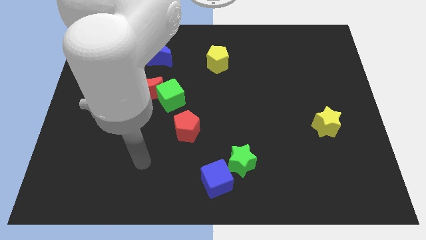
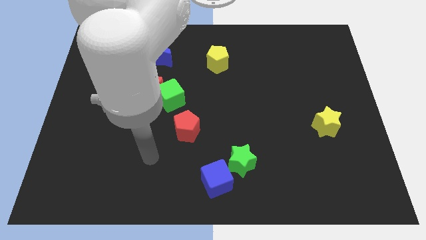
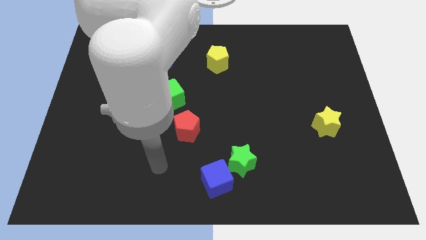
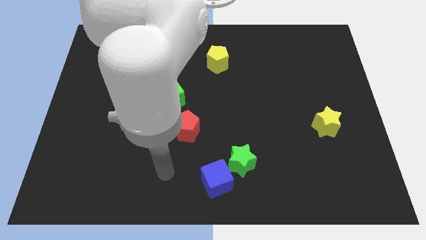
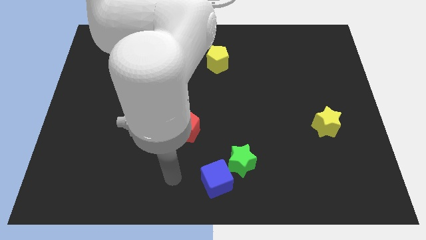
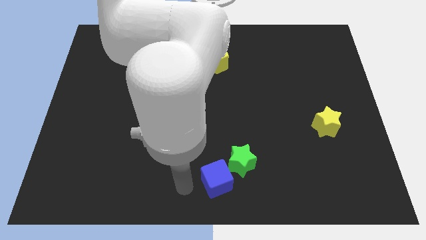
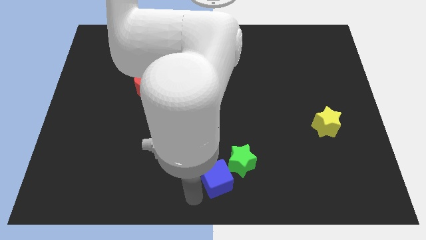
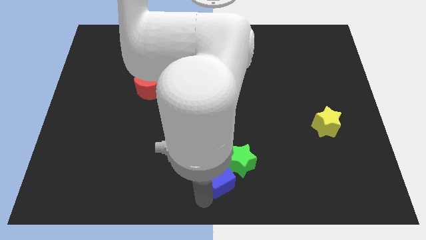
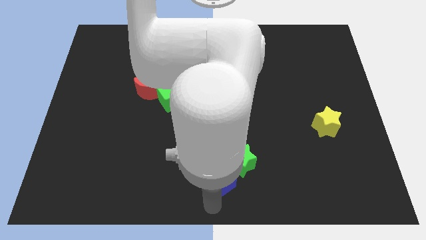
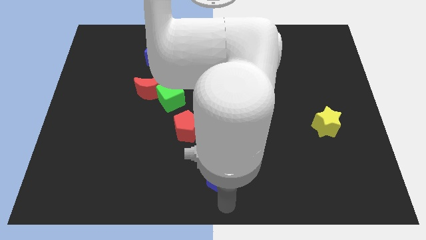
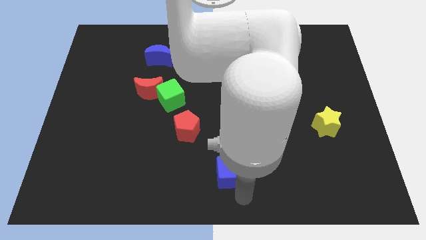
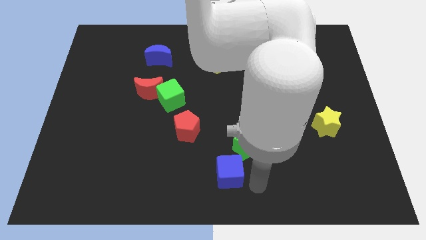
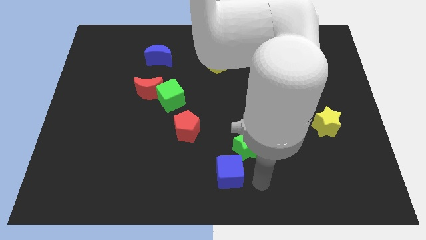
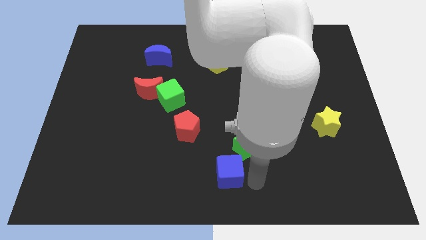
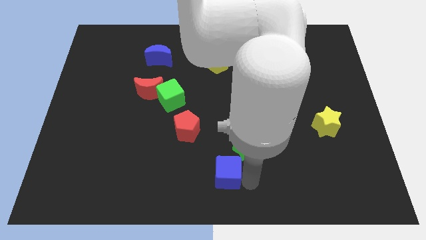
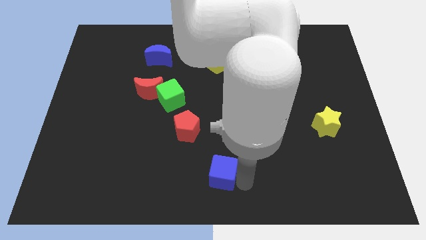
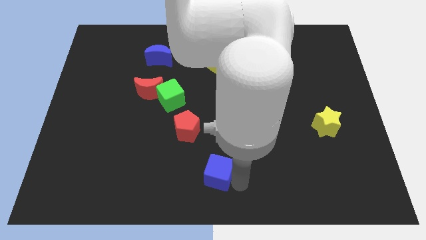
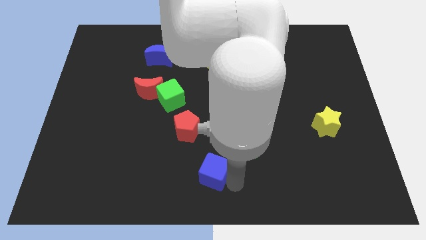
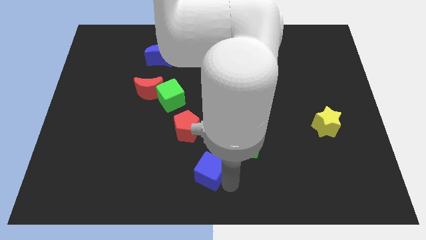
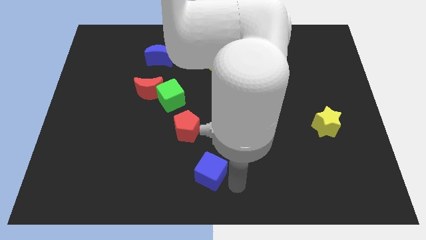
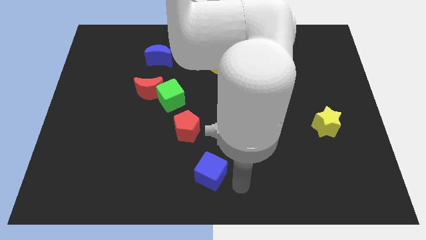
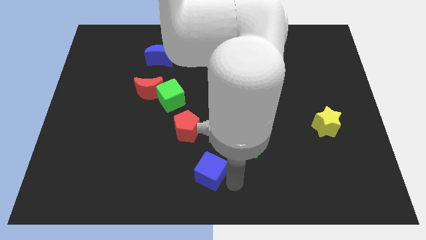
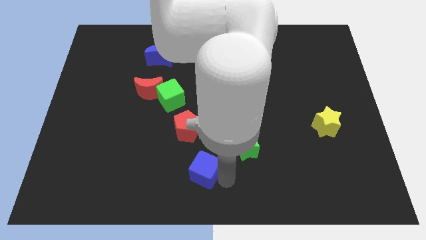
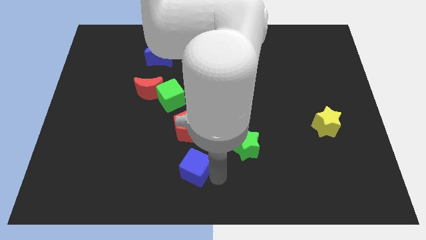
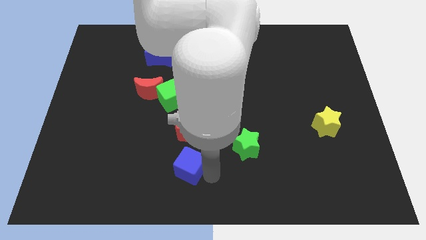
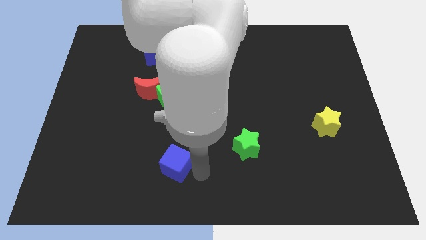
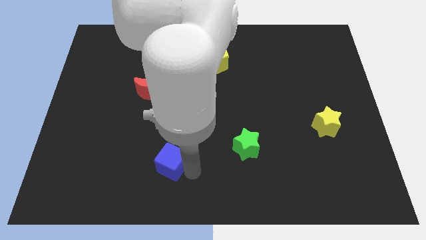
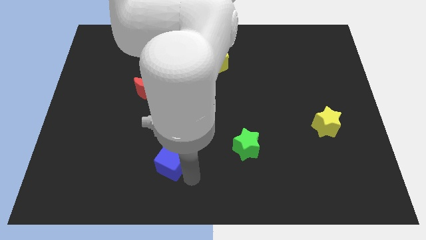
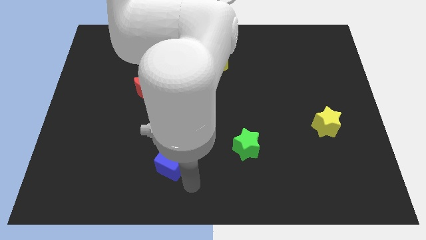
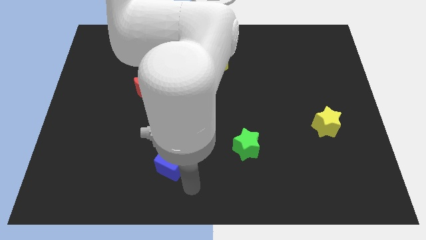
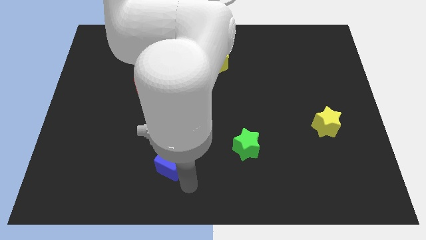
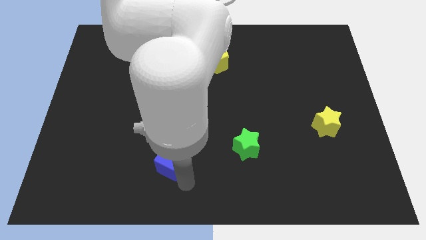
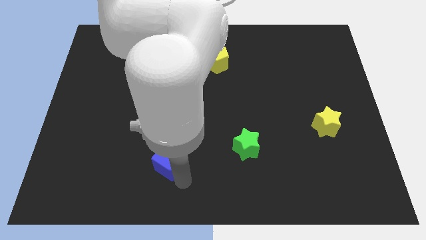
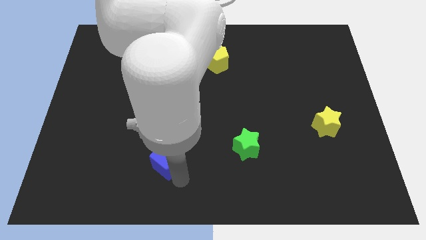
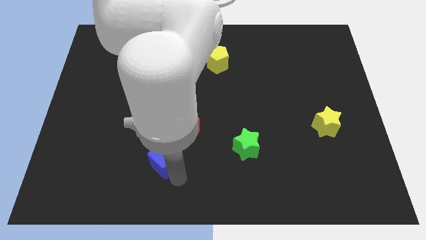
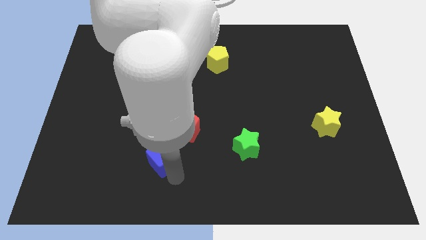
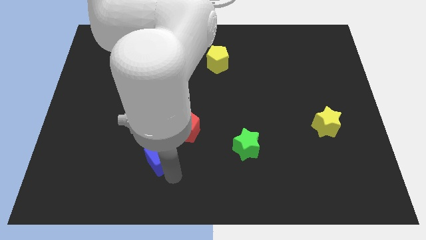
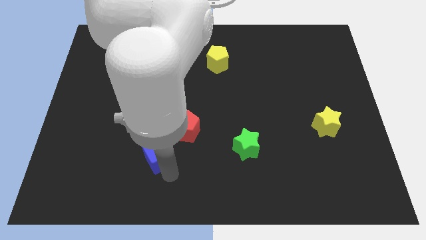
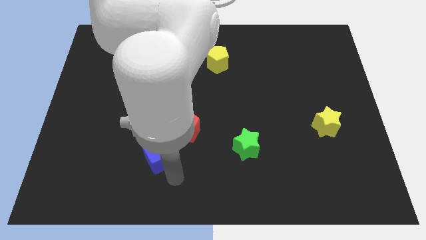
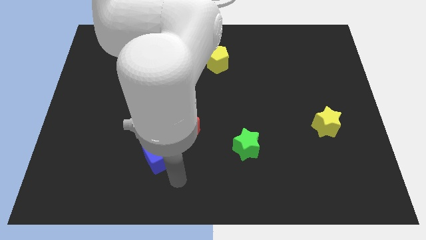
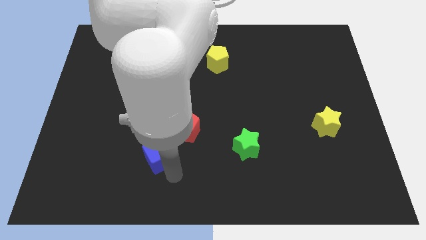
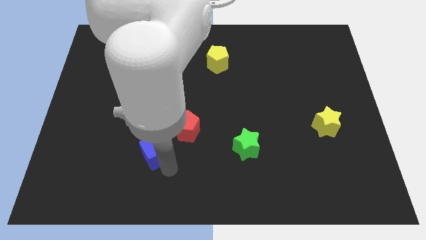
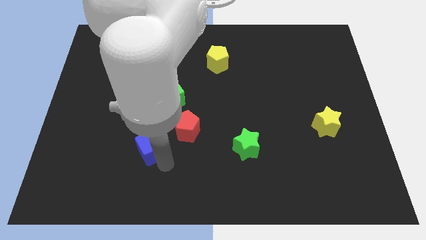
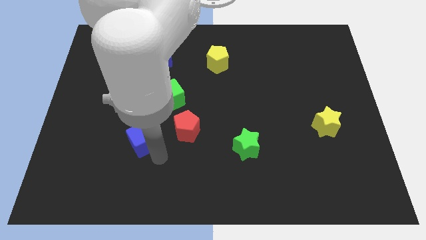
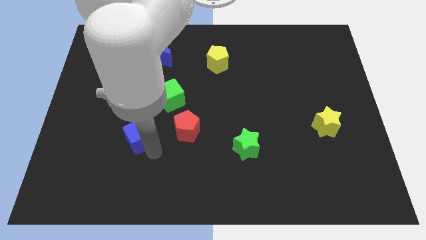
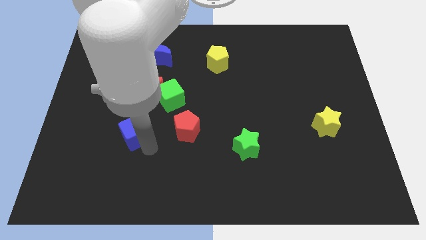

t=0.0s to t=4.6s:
push the blue cube up and then left

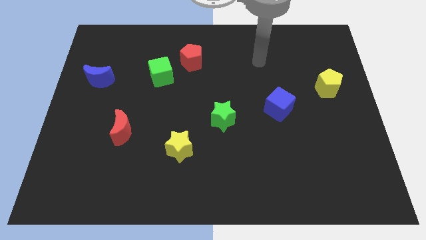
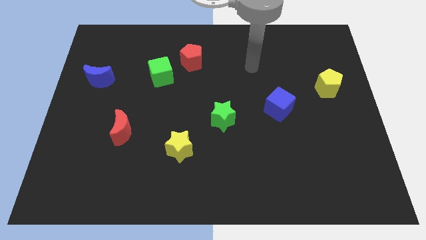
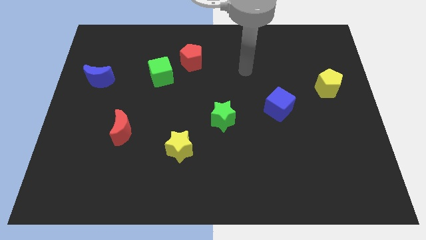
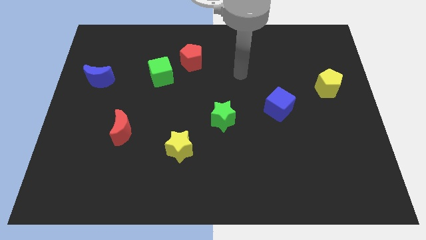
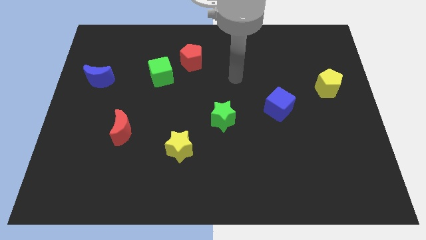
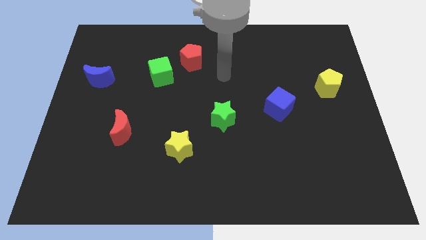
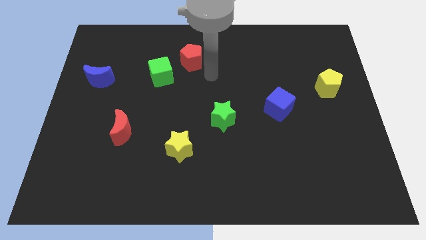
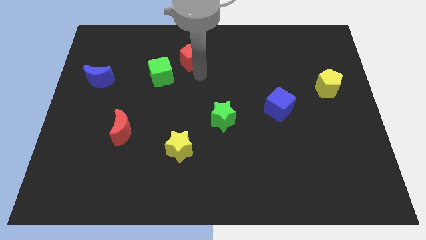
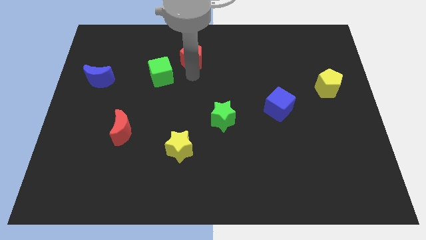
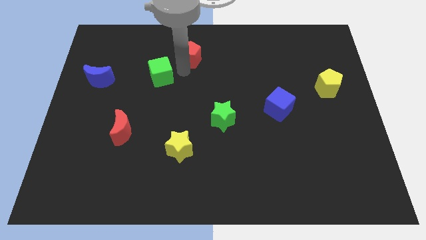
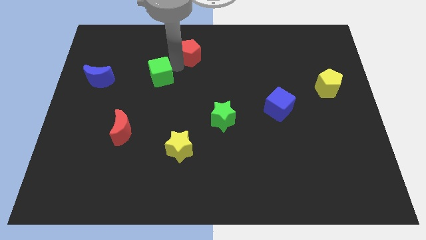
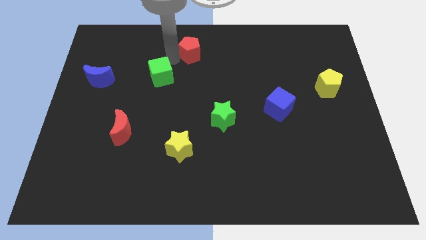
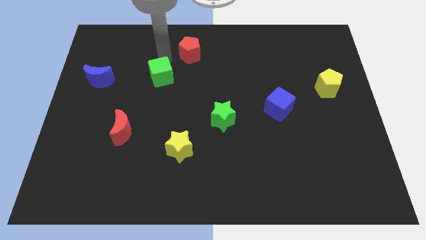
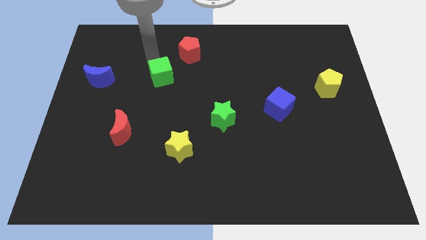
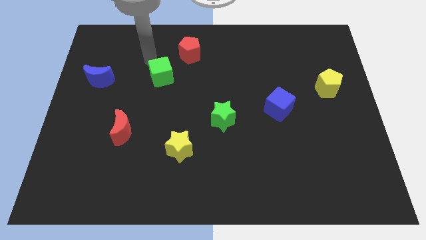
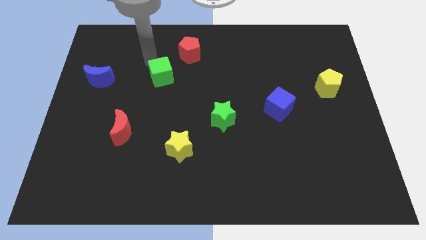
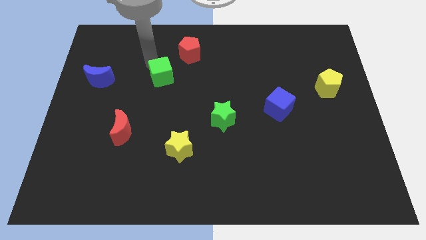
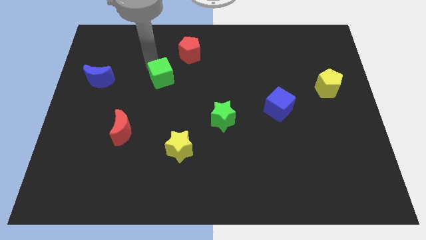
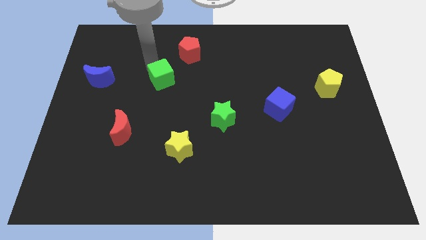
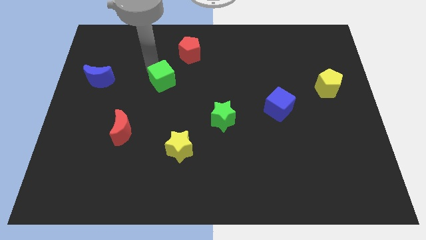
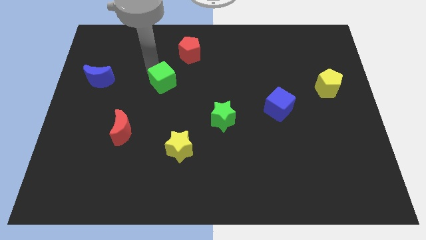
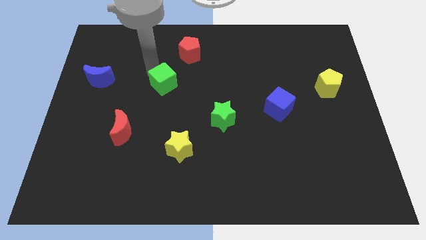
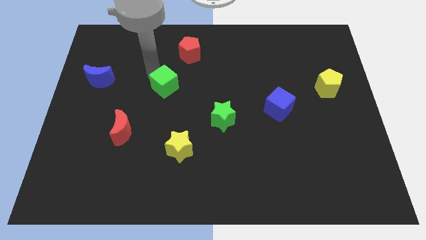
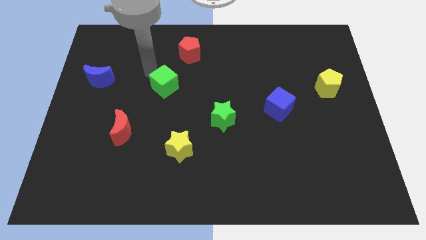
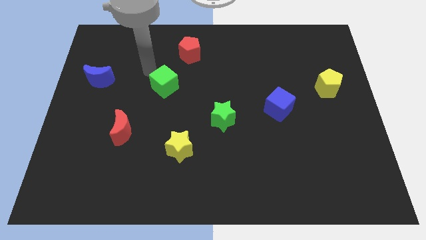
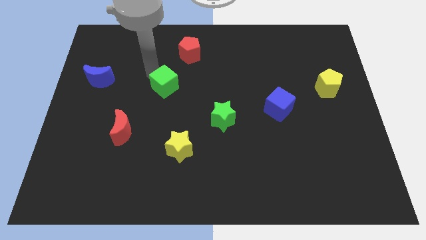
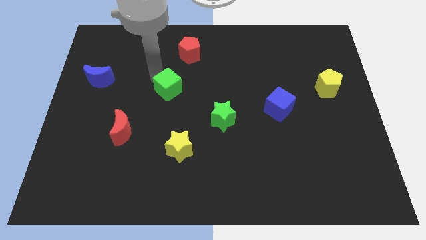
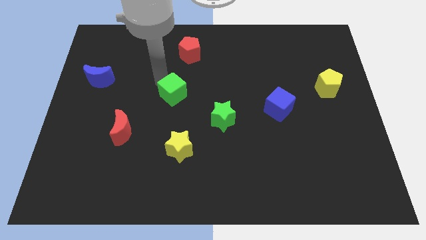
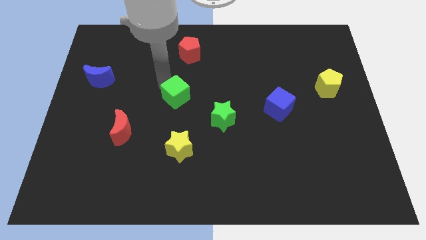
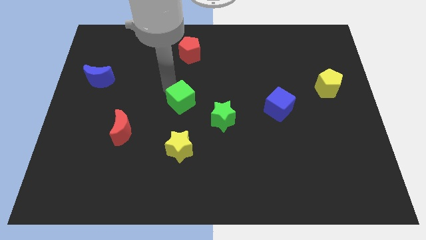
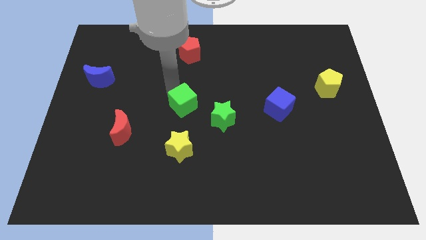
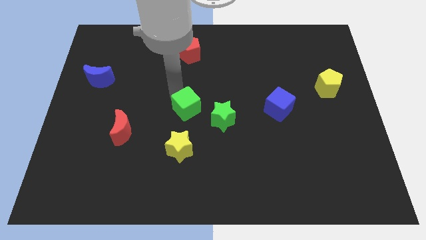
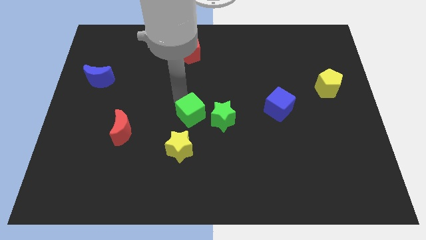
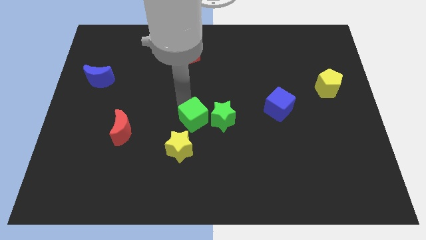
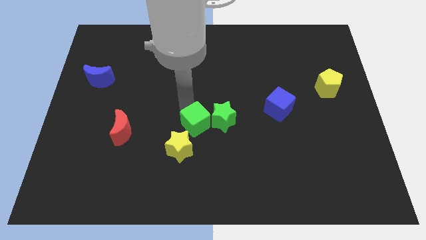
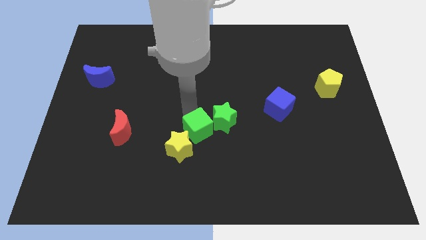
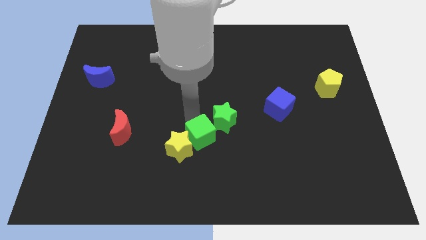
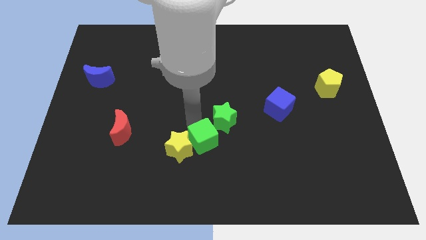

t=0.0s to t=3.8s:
move the green cube diagonally downwards and to the right
